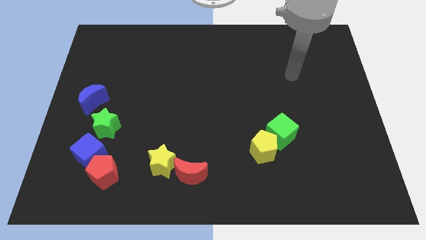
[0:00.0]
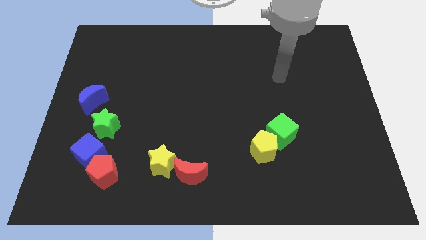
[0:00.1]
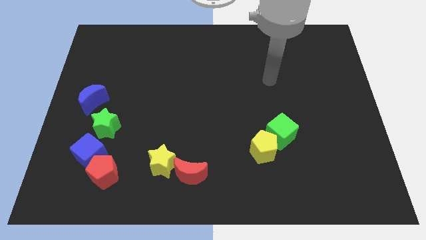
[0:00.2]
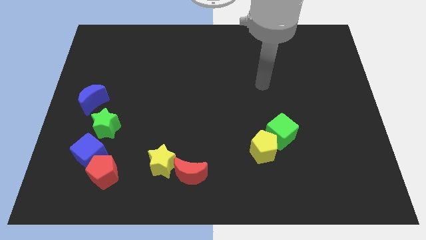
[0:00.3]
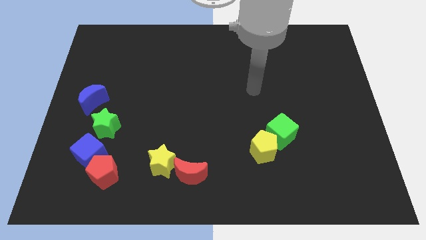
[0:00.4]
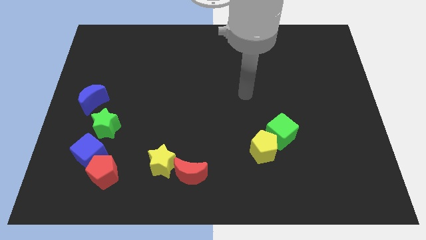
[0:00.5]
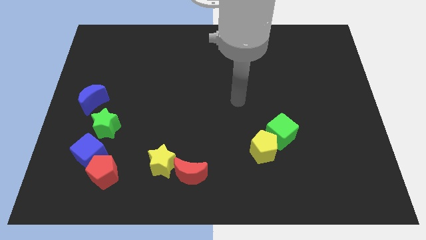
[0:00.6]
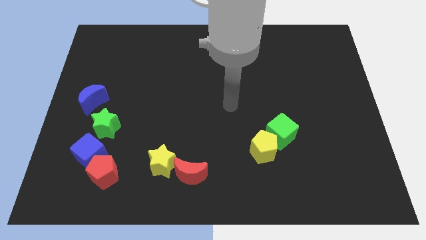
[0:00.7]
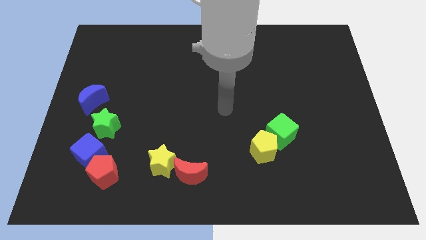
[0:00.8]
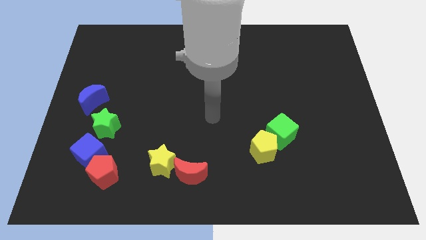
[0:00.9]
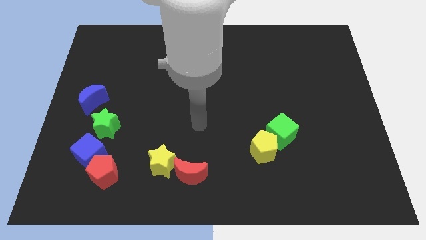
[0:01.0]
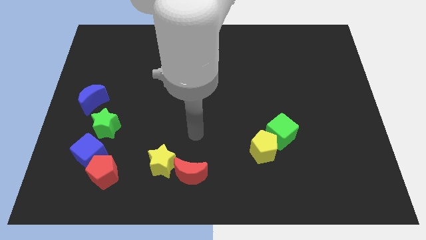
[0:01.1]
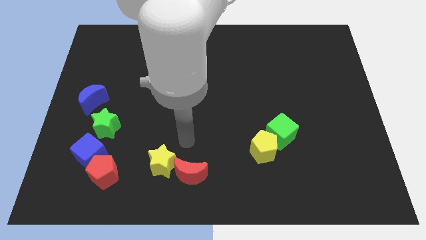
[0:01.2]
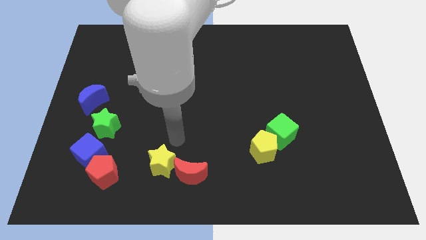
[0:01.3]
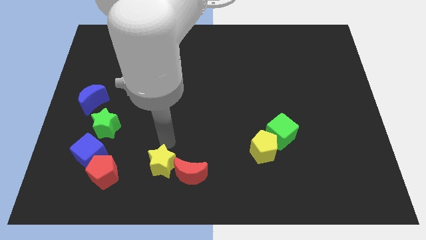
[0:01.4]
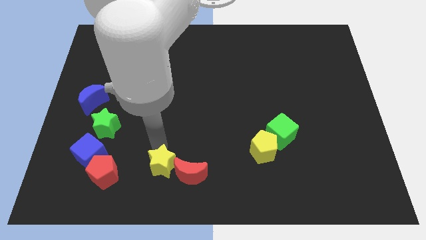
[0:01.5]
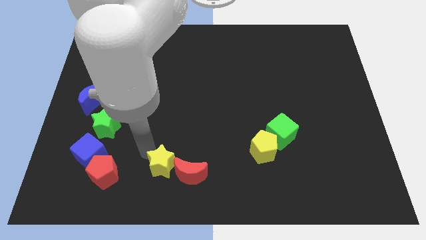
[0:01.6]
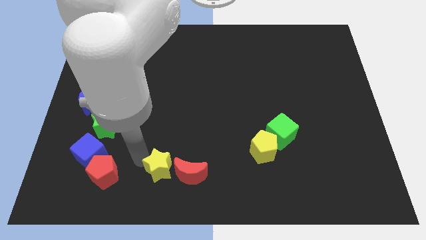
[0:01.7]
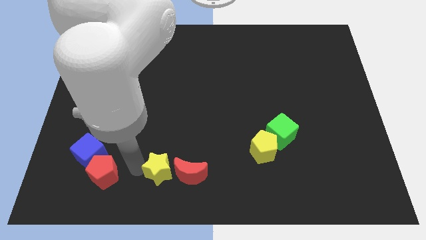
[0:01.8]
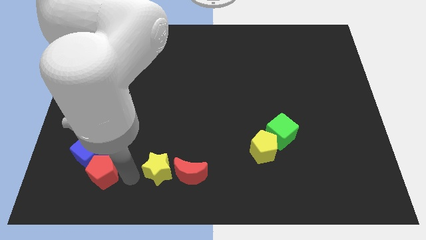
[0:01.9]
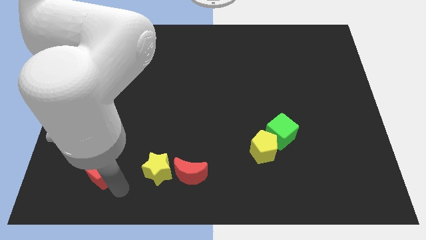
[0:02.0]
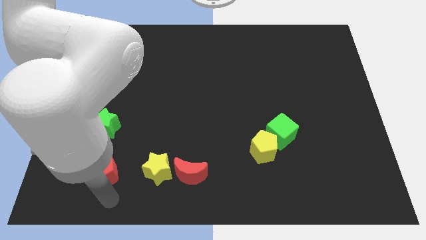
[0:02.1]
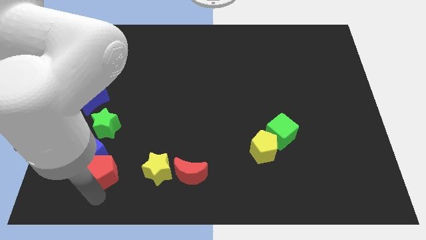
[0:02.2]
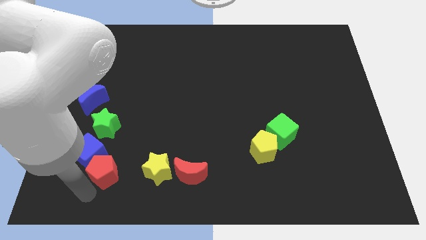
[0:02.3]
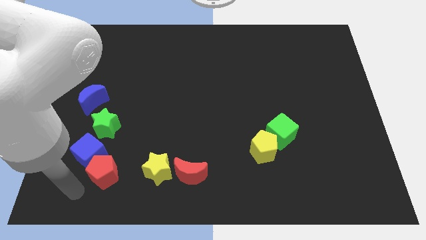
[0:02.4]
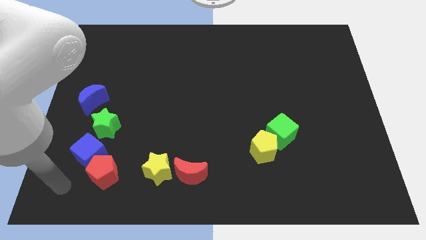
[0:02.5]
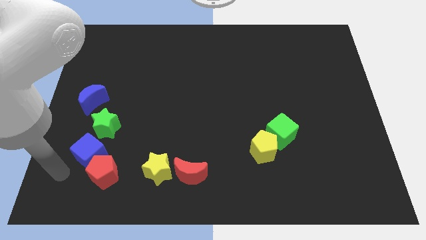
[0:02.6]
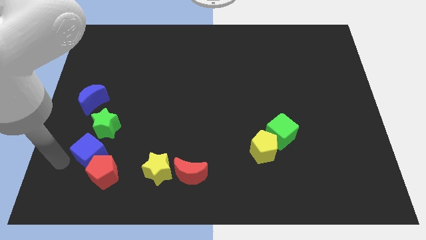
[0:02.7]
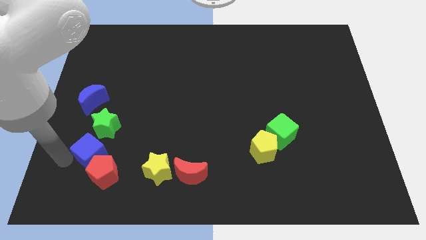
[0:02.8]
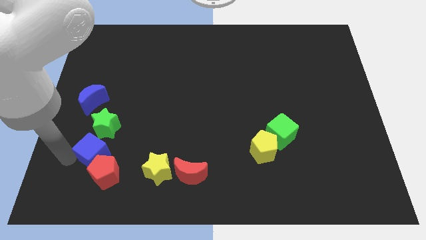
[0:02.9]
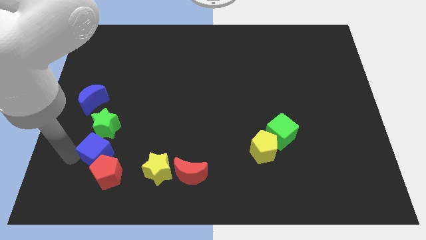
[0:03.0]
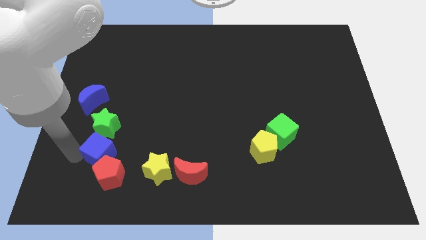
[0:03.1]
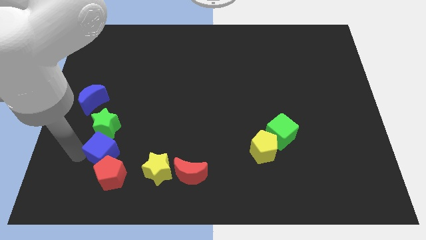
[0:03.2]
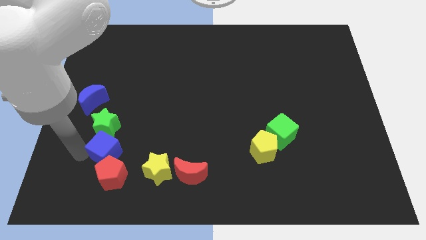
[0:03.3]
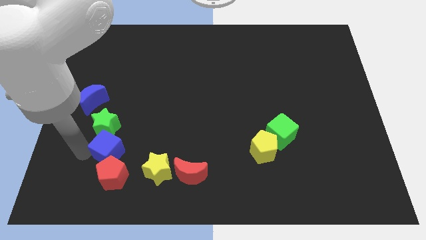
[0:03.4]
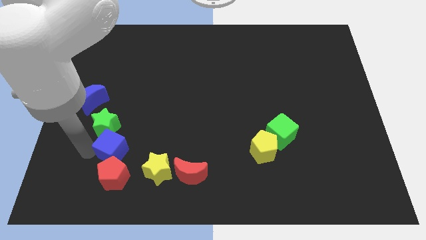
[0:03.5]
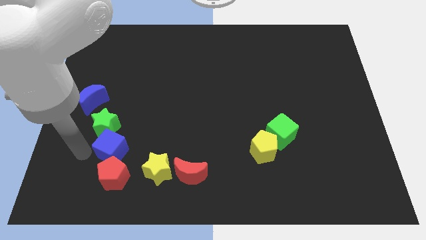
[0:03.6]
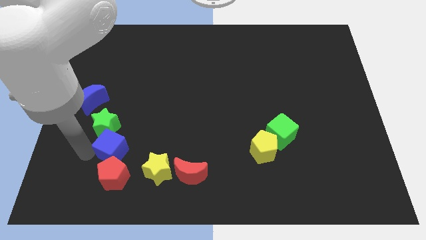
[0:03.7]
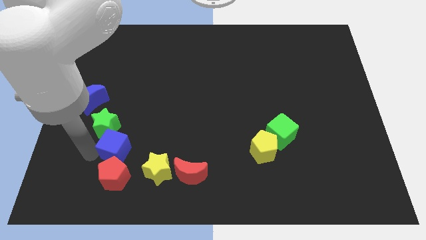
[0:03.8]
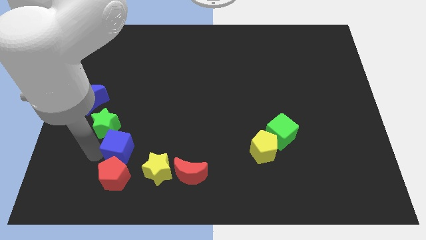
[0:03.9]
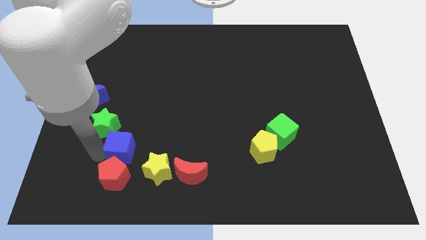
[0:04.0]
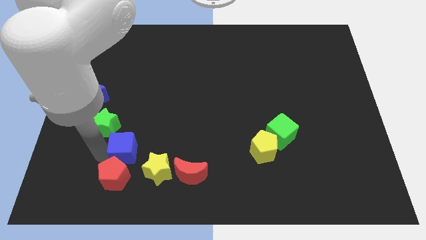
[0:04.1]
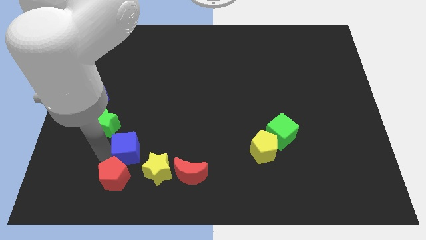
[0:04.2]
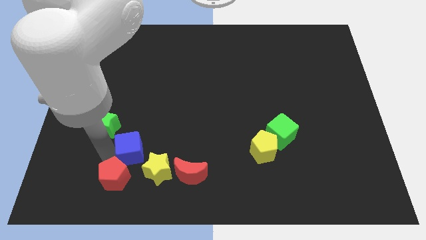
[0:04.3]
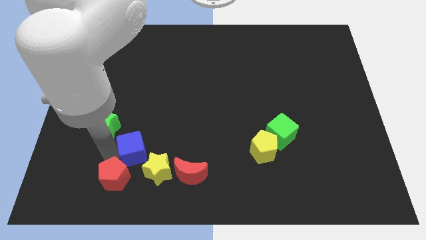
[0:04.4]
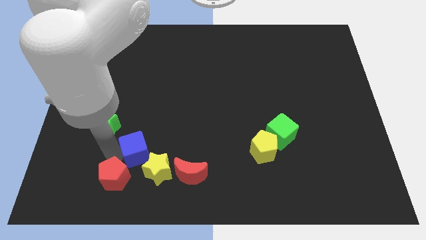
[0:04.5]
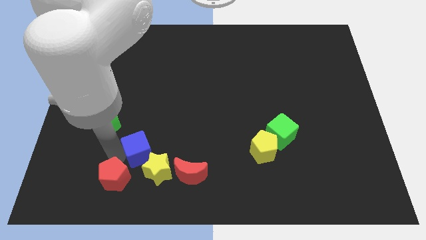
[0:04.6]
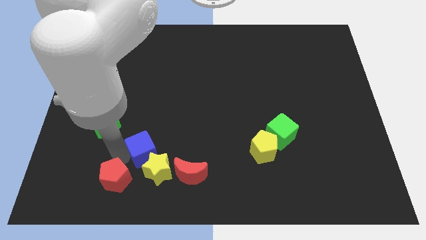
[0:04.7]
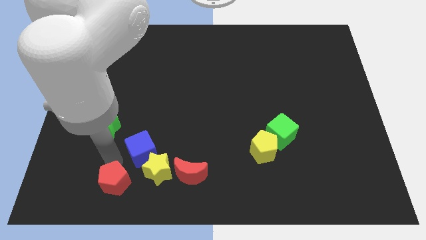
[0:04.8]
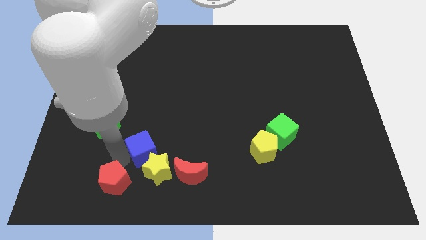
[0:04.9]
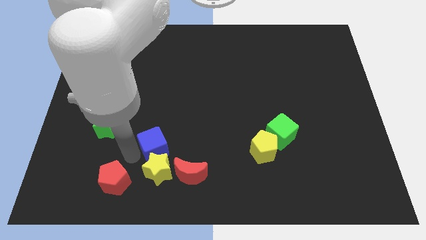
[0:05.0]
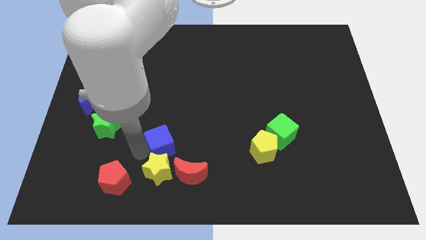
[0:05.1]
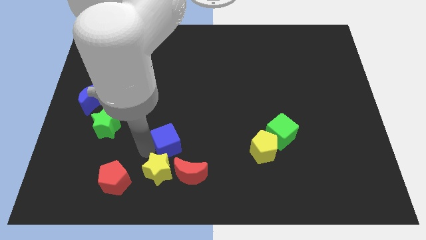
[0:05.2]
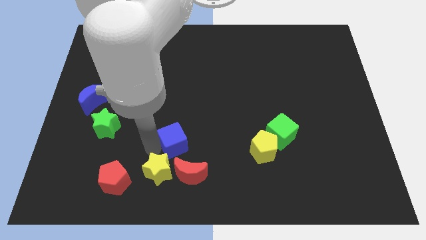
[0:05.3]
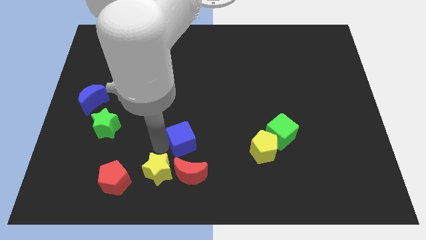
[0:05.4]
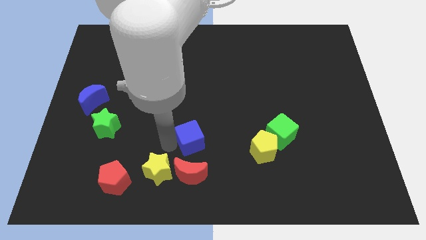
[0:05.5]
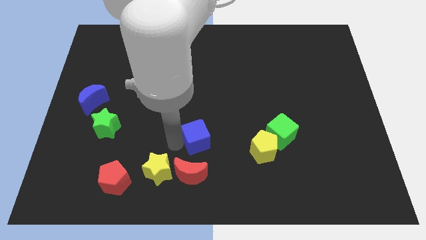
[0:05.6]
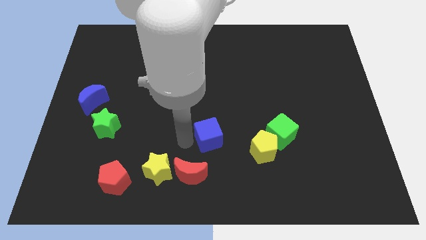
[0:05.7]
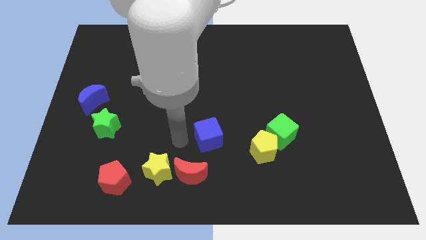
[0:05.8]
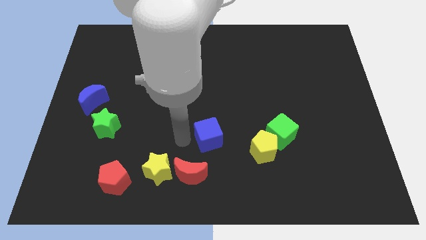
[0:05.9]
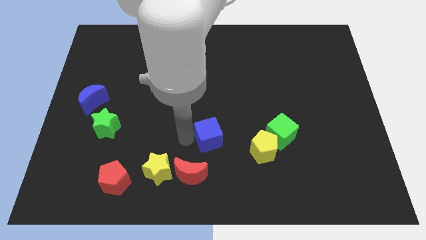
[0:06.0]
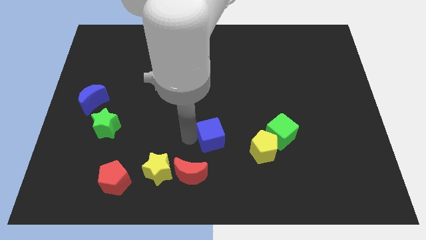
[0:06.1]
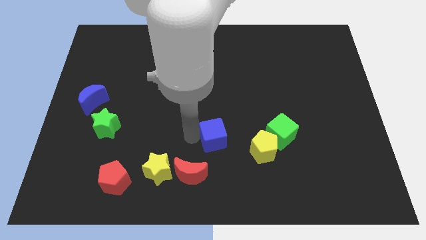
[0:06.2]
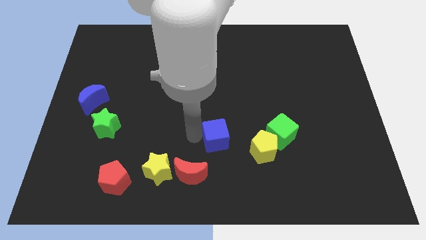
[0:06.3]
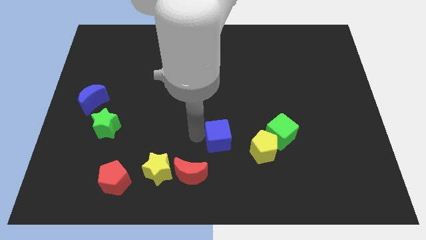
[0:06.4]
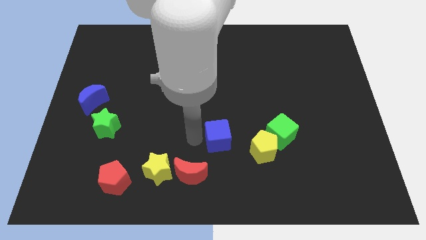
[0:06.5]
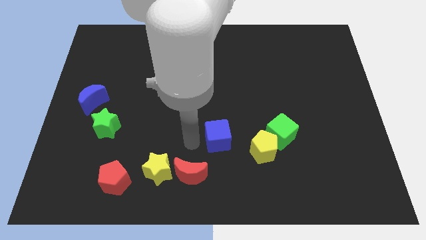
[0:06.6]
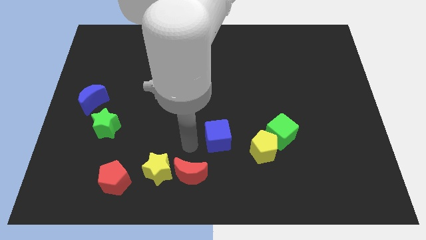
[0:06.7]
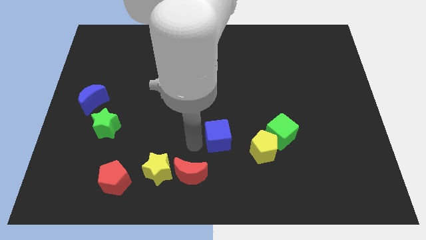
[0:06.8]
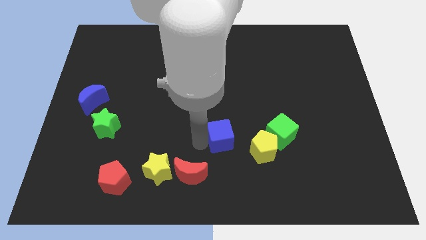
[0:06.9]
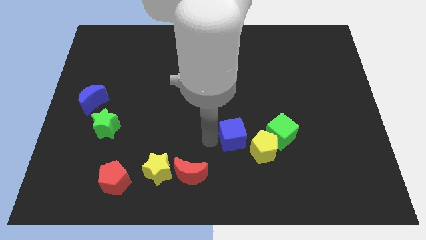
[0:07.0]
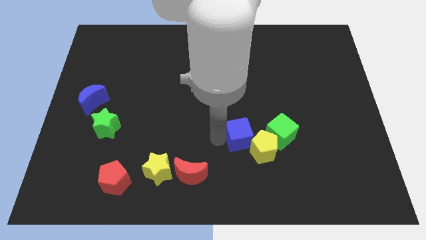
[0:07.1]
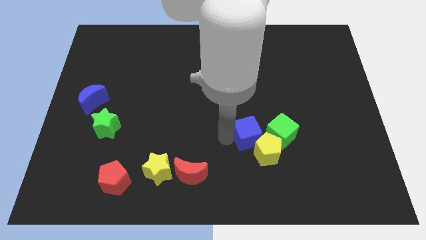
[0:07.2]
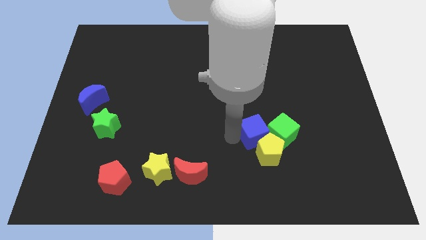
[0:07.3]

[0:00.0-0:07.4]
put the blue cube towards the green cube
